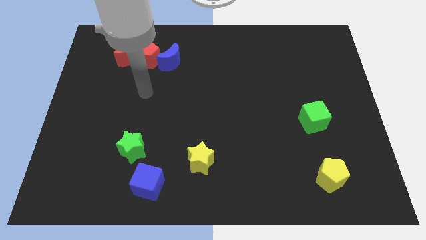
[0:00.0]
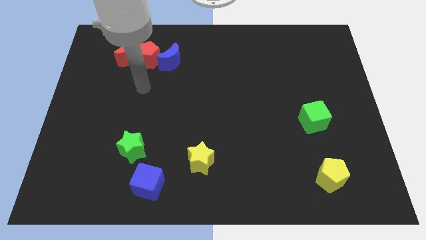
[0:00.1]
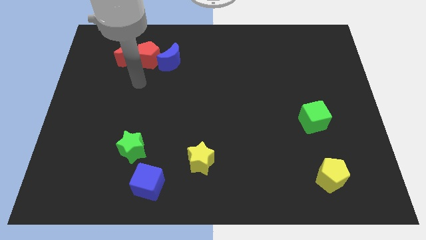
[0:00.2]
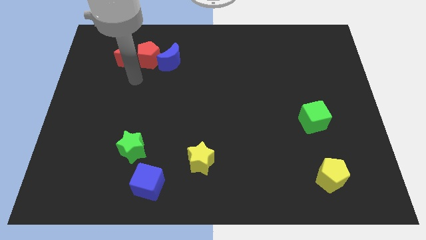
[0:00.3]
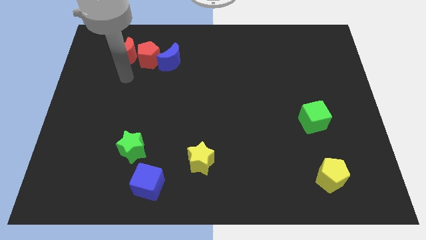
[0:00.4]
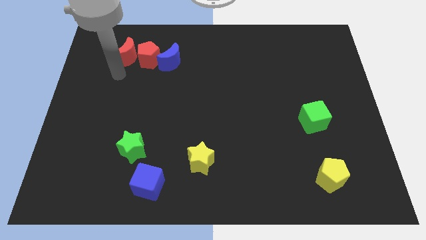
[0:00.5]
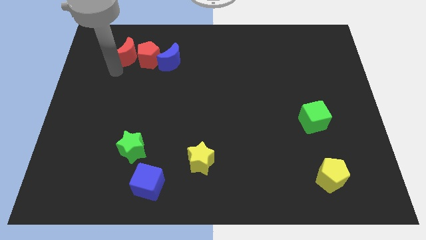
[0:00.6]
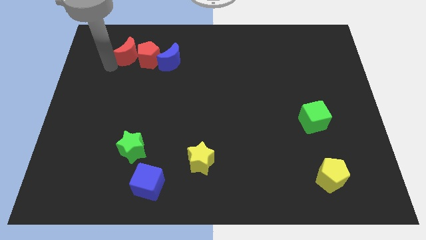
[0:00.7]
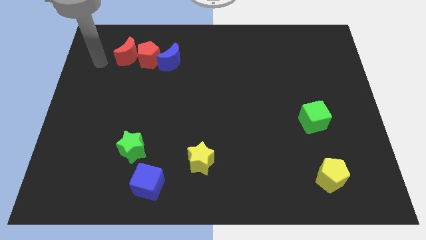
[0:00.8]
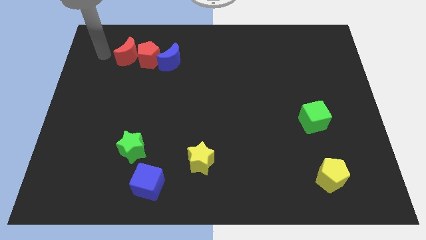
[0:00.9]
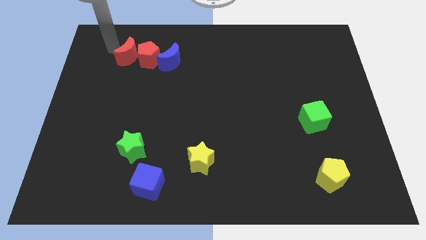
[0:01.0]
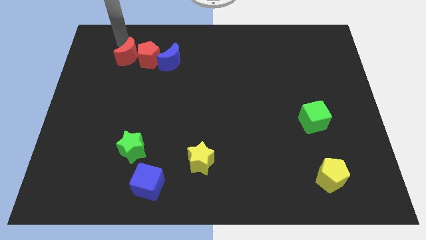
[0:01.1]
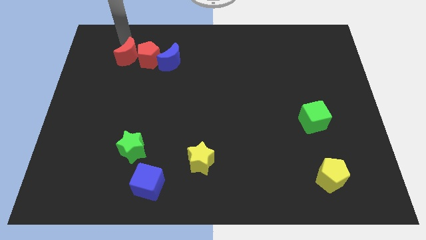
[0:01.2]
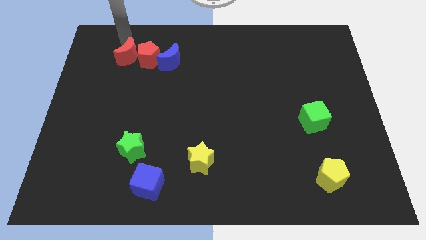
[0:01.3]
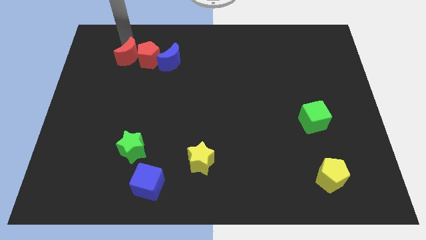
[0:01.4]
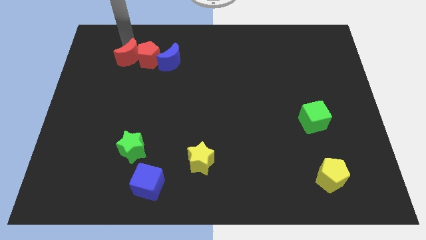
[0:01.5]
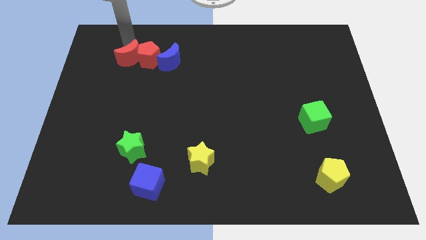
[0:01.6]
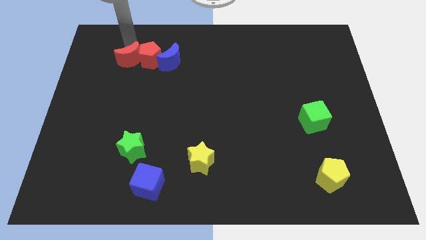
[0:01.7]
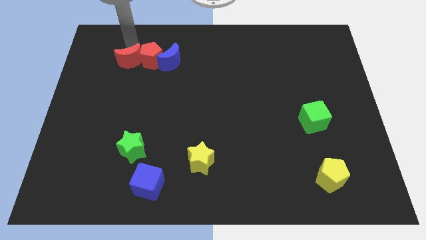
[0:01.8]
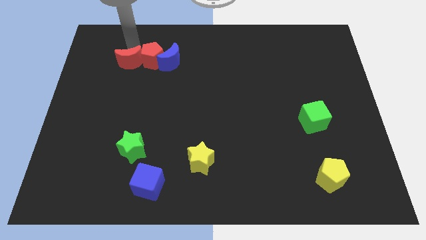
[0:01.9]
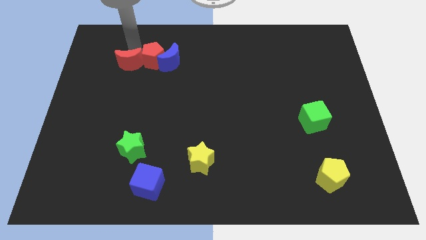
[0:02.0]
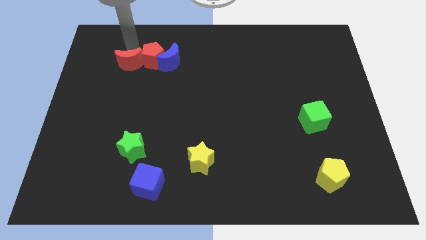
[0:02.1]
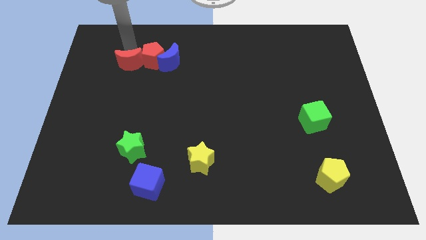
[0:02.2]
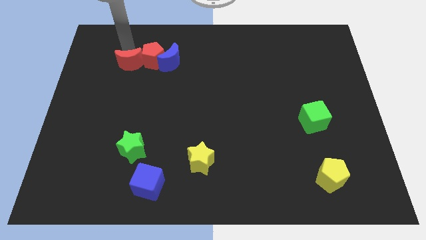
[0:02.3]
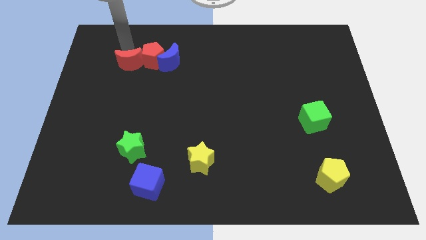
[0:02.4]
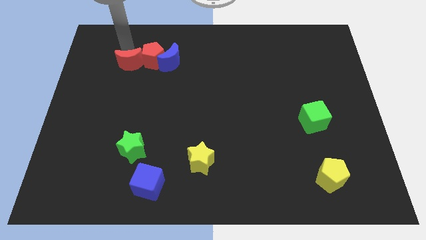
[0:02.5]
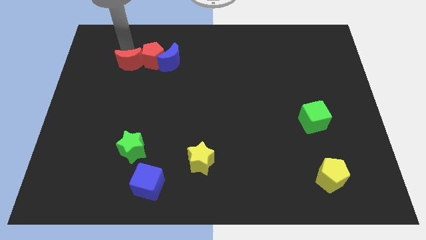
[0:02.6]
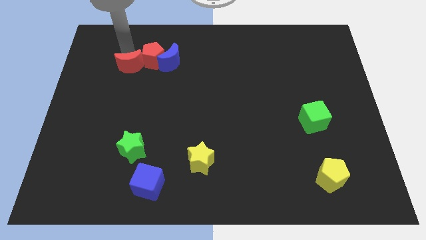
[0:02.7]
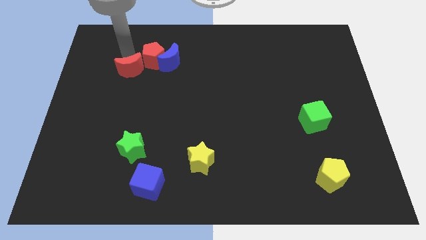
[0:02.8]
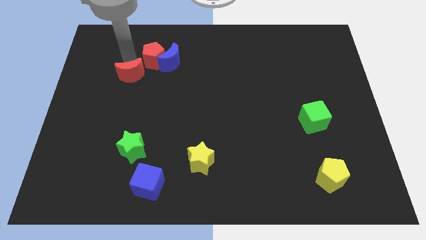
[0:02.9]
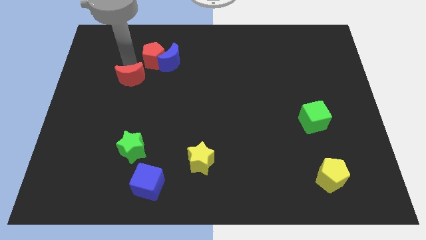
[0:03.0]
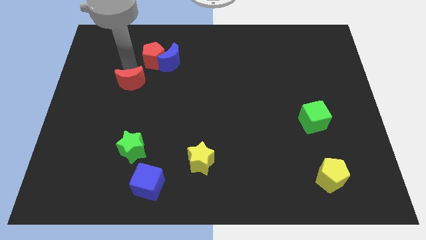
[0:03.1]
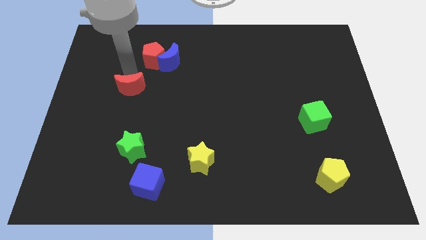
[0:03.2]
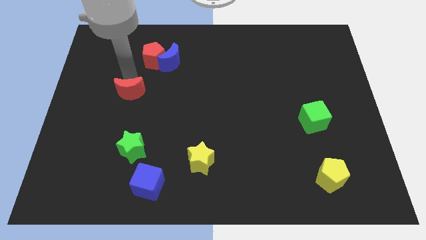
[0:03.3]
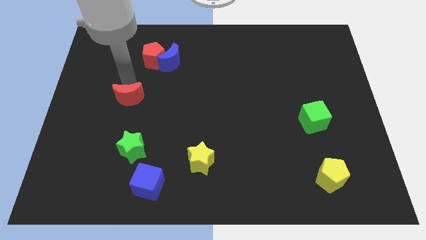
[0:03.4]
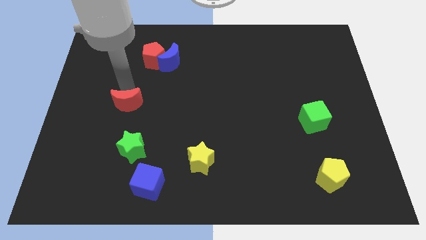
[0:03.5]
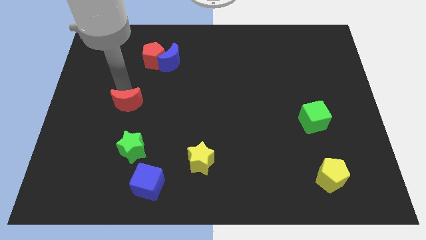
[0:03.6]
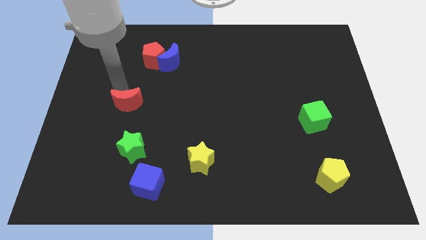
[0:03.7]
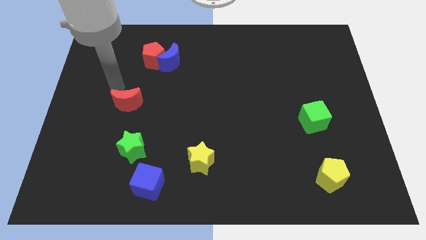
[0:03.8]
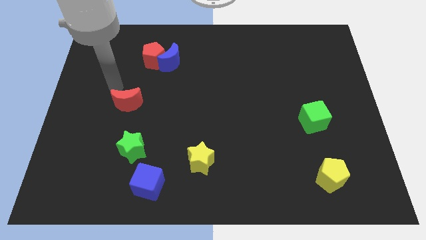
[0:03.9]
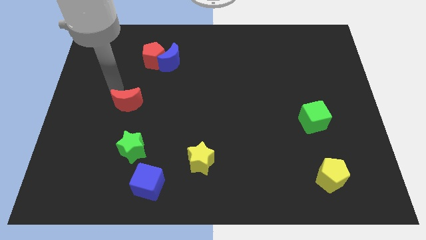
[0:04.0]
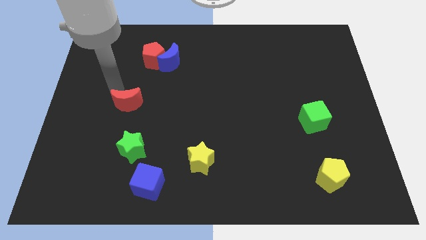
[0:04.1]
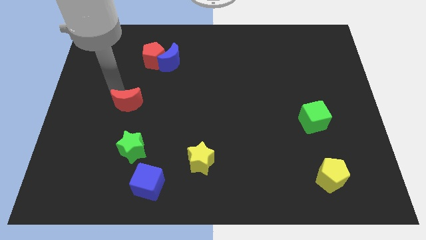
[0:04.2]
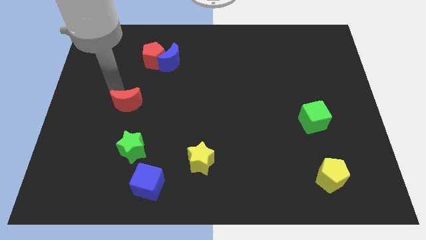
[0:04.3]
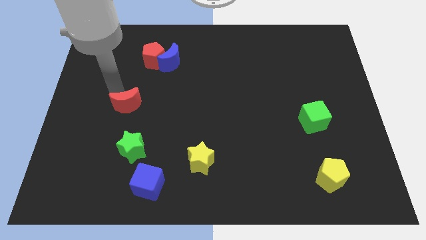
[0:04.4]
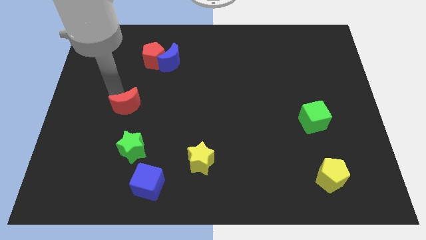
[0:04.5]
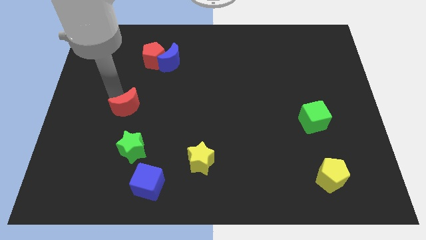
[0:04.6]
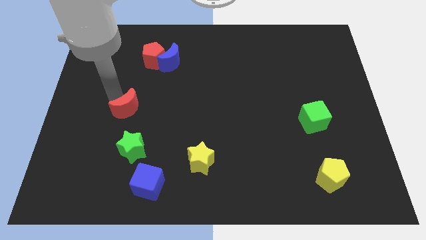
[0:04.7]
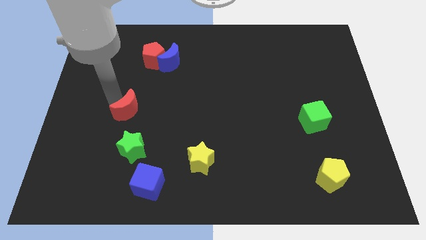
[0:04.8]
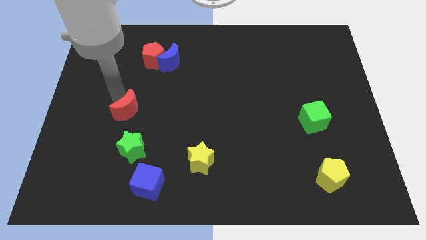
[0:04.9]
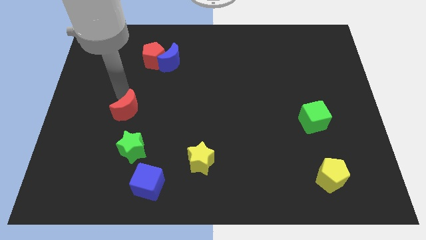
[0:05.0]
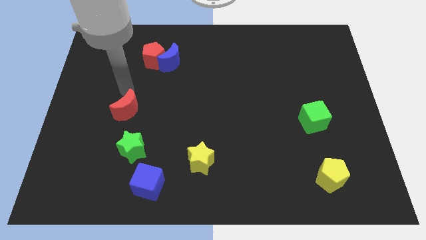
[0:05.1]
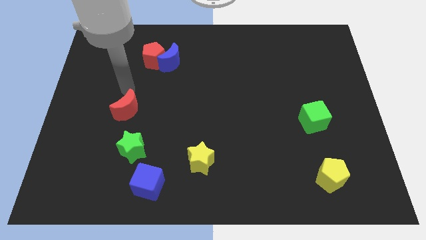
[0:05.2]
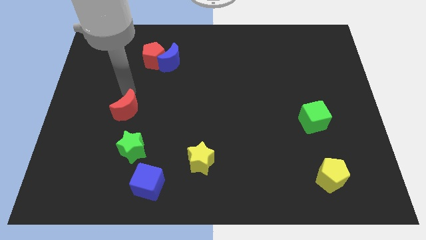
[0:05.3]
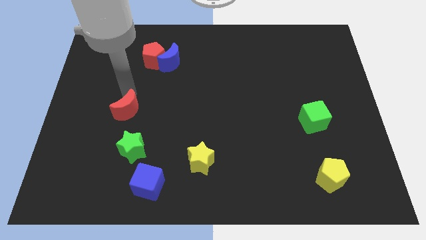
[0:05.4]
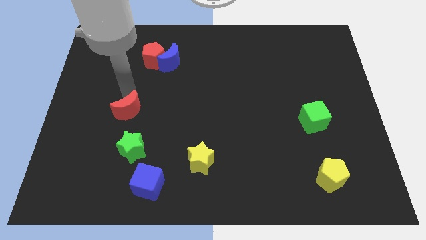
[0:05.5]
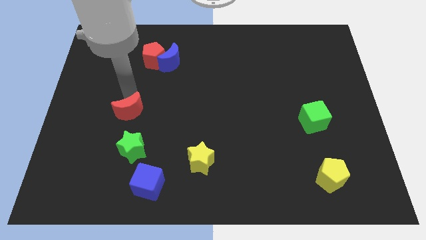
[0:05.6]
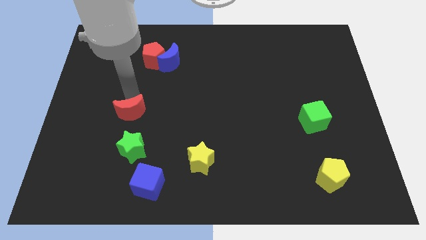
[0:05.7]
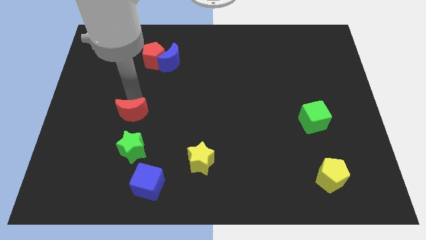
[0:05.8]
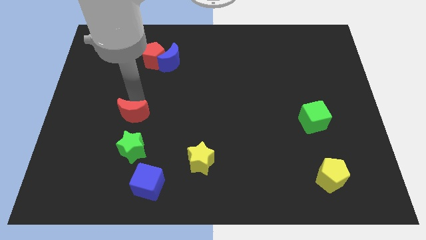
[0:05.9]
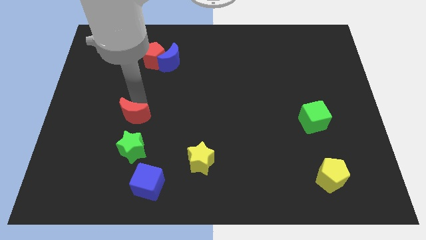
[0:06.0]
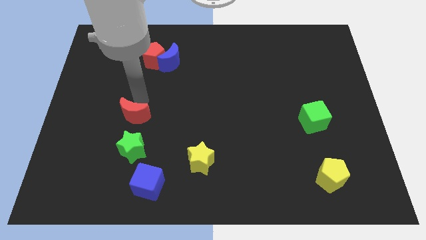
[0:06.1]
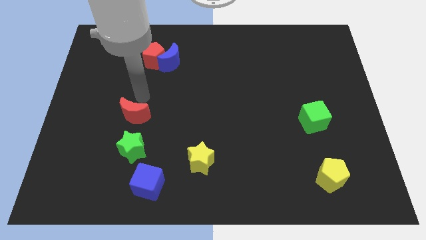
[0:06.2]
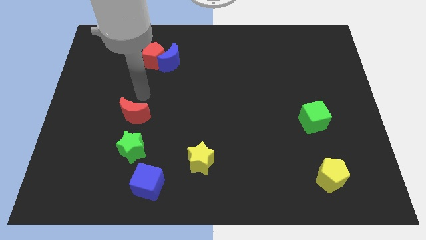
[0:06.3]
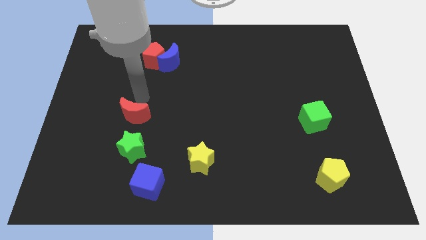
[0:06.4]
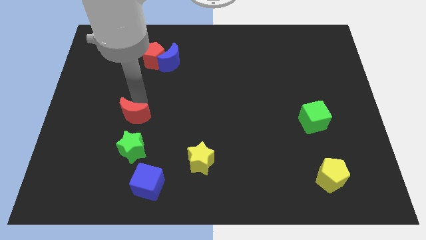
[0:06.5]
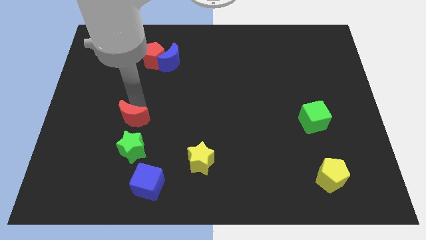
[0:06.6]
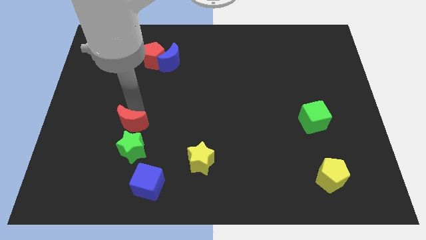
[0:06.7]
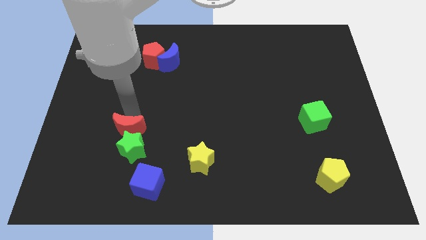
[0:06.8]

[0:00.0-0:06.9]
slide the red moon towards the green star

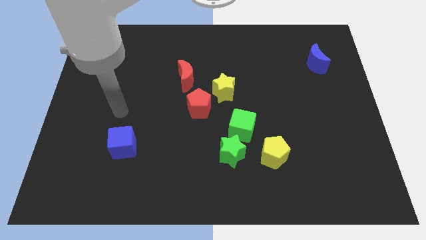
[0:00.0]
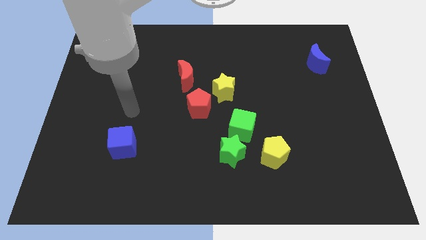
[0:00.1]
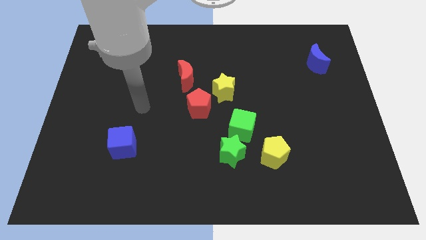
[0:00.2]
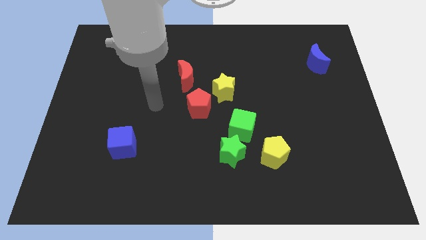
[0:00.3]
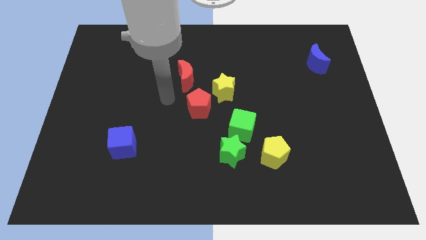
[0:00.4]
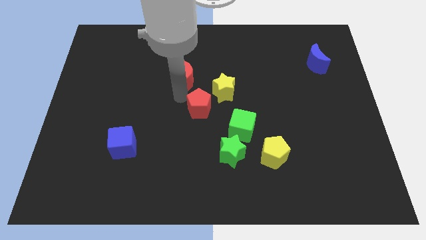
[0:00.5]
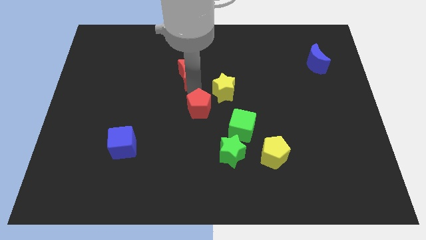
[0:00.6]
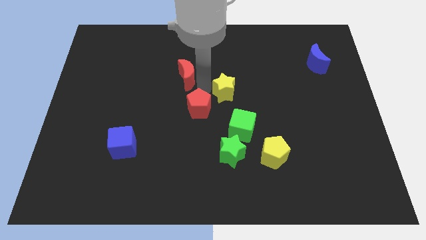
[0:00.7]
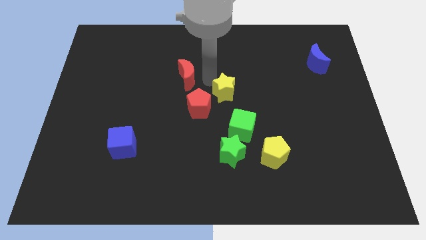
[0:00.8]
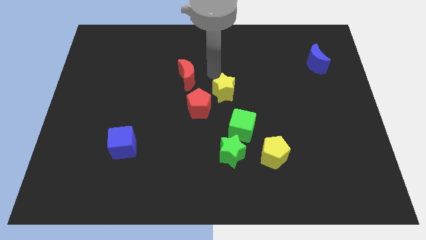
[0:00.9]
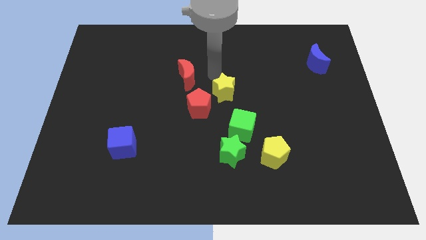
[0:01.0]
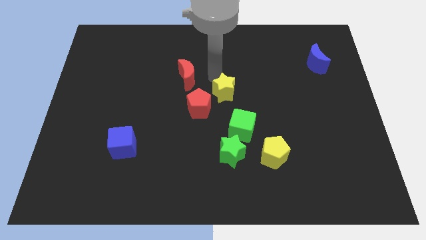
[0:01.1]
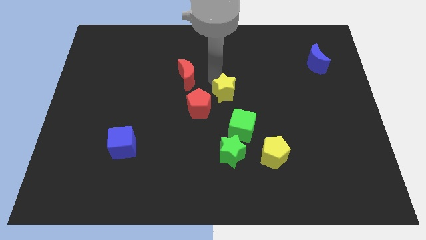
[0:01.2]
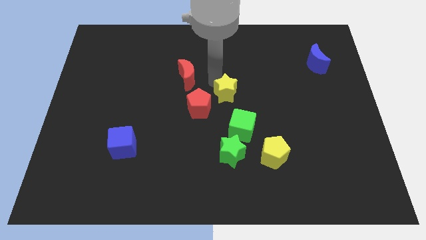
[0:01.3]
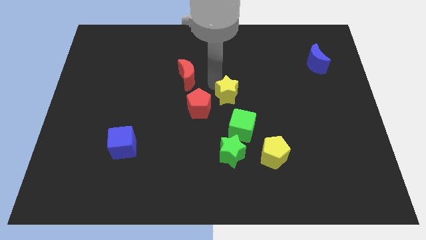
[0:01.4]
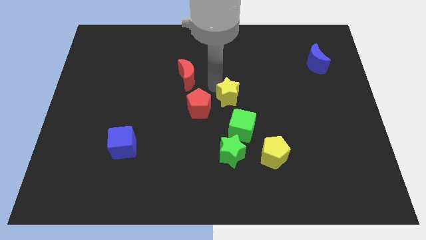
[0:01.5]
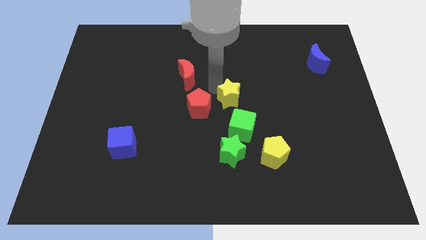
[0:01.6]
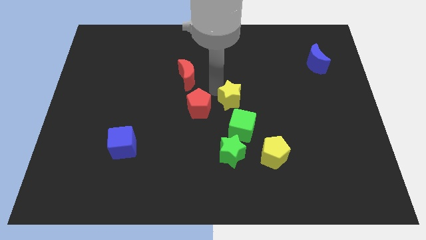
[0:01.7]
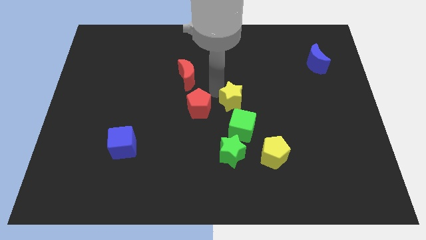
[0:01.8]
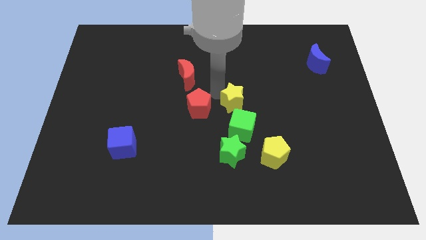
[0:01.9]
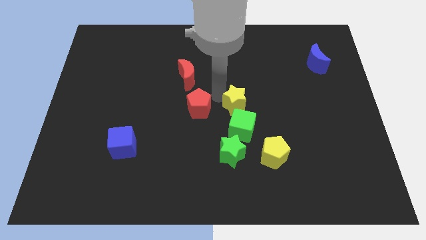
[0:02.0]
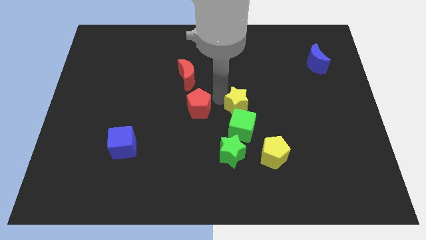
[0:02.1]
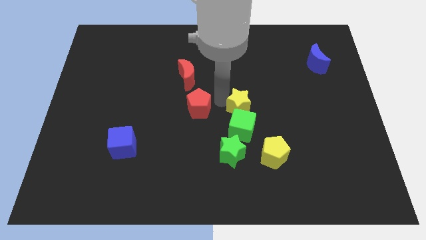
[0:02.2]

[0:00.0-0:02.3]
slide the yellow star close to the green cube
